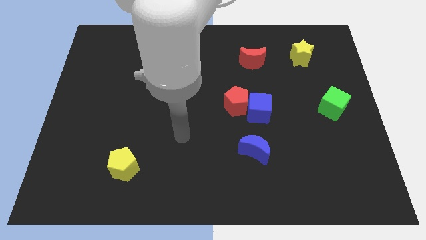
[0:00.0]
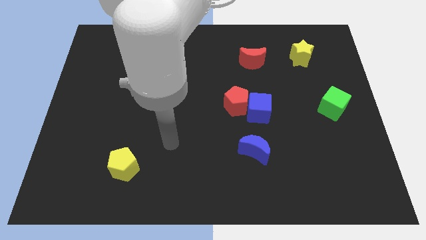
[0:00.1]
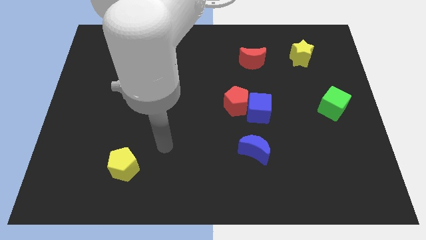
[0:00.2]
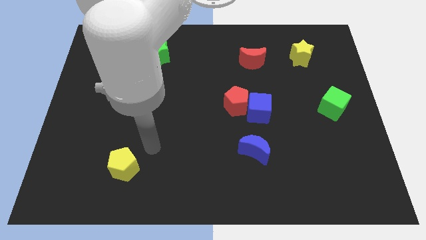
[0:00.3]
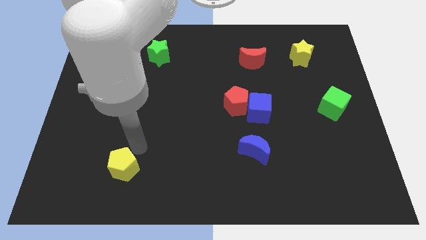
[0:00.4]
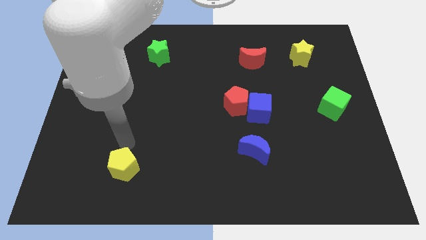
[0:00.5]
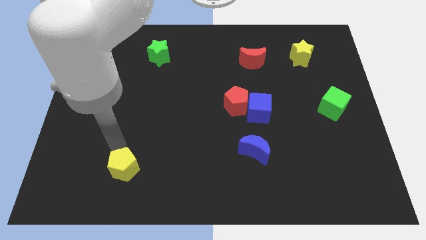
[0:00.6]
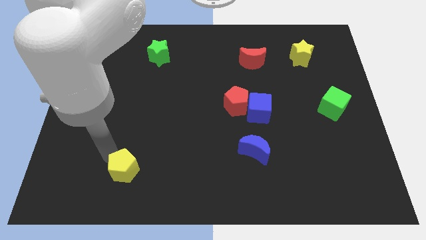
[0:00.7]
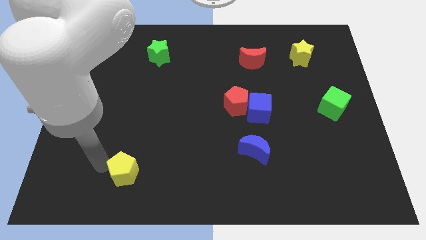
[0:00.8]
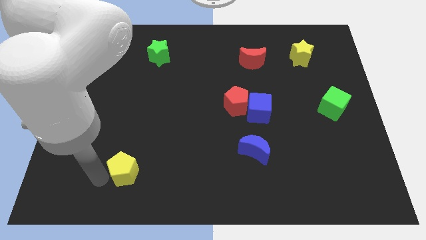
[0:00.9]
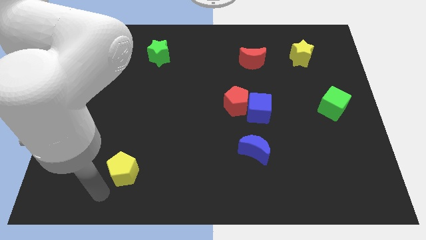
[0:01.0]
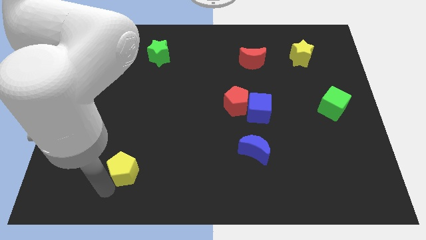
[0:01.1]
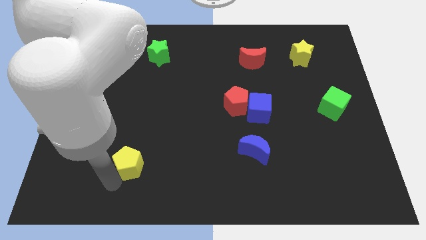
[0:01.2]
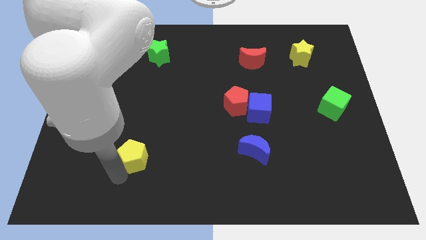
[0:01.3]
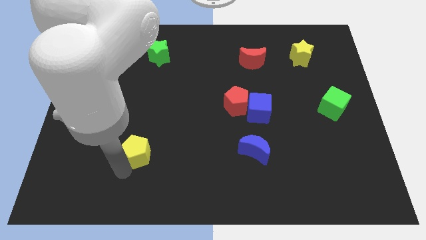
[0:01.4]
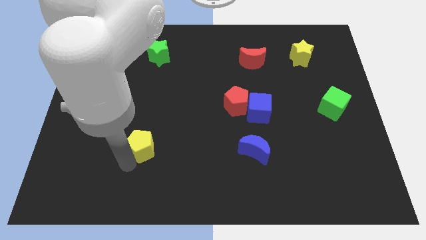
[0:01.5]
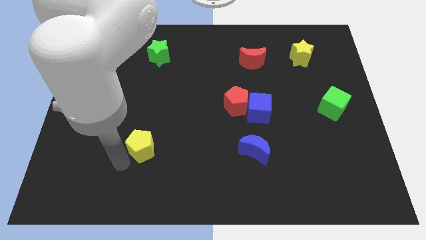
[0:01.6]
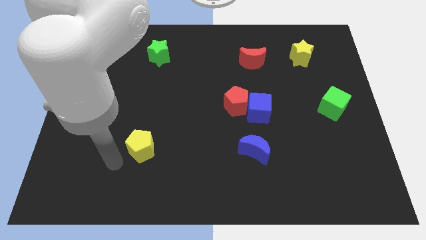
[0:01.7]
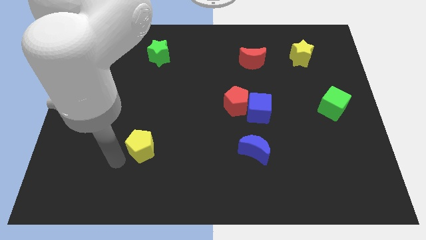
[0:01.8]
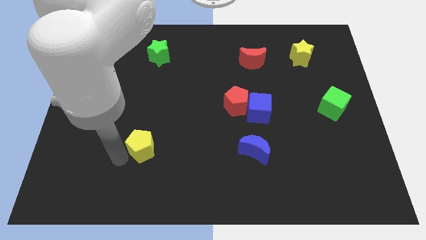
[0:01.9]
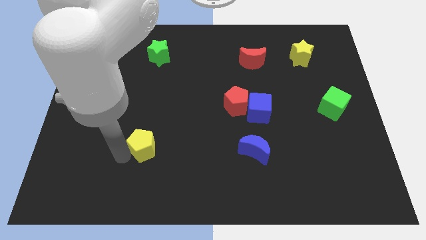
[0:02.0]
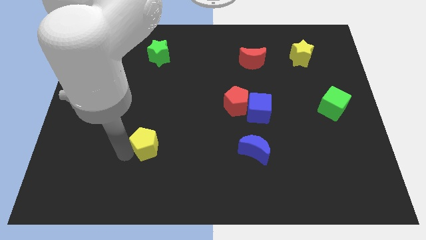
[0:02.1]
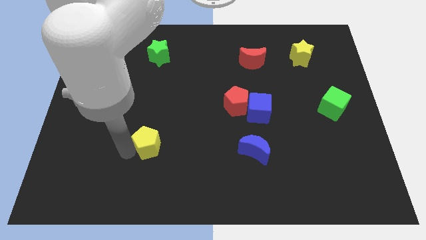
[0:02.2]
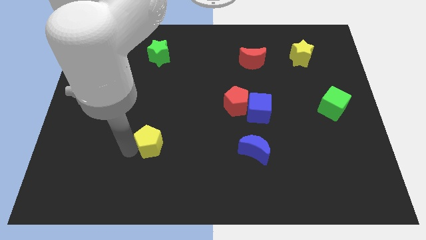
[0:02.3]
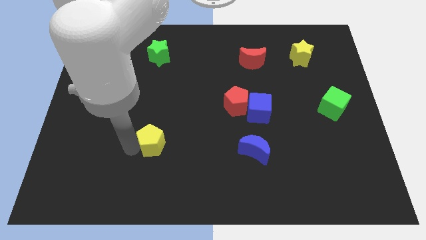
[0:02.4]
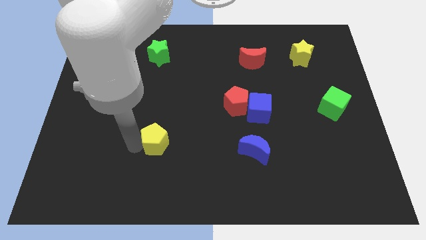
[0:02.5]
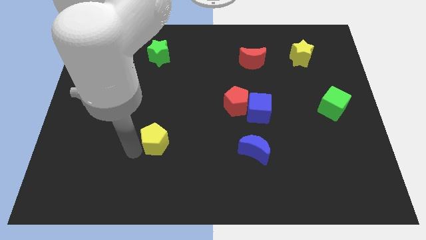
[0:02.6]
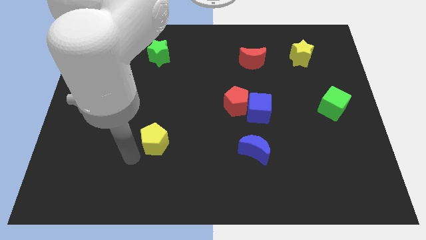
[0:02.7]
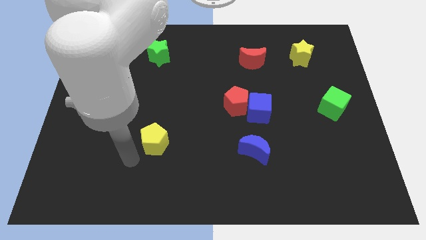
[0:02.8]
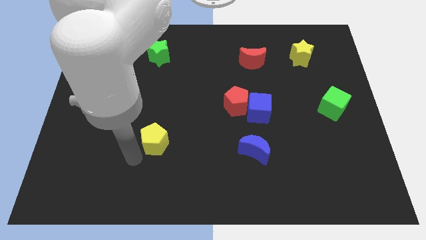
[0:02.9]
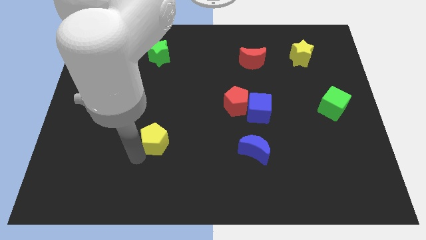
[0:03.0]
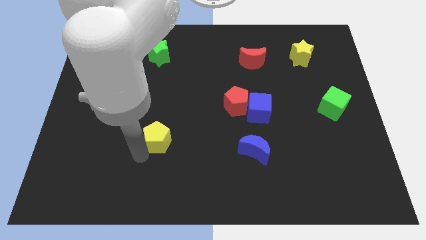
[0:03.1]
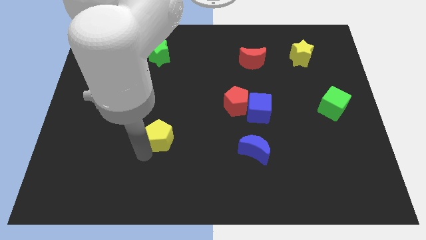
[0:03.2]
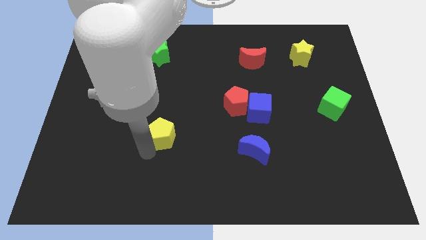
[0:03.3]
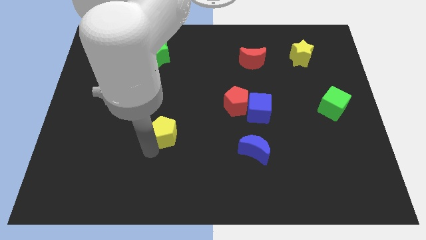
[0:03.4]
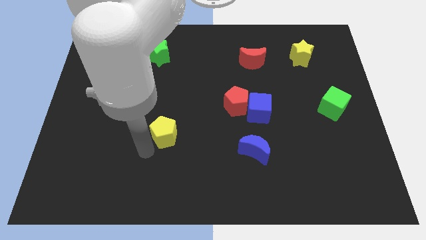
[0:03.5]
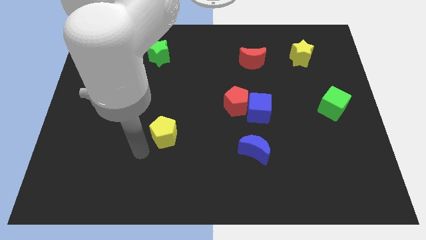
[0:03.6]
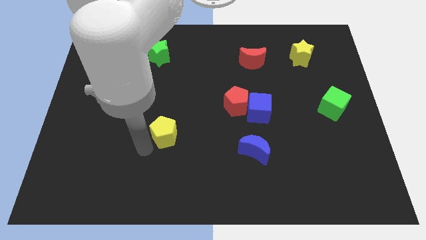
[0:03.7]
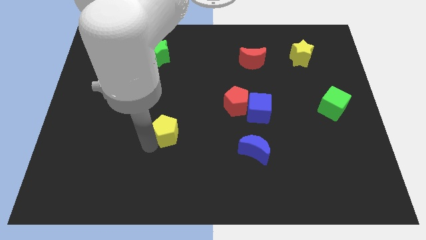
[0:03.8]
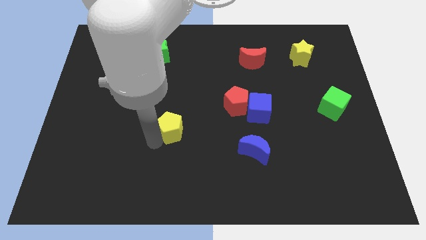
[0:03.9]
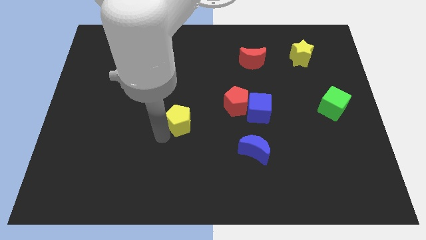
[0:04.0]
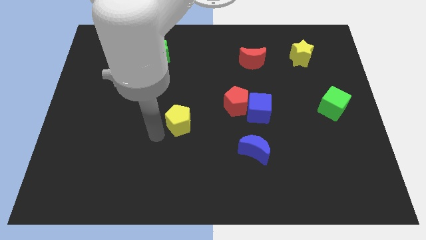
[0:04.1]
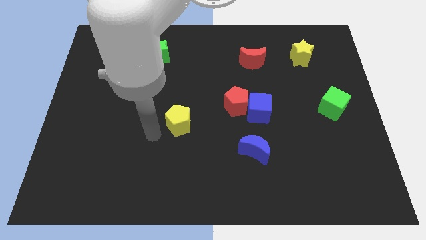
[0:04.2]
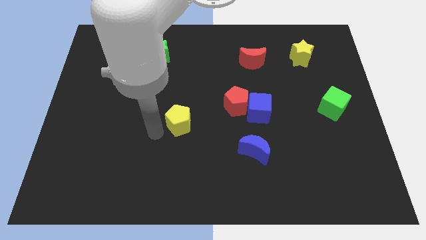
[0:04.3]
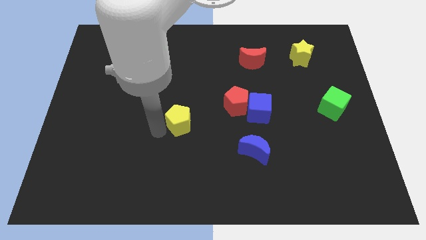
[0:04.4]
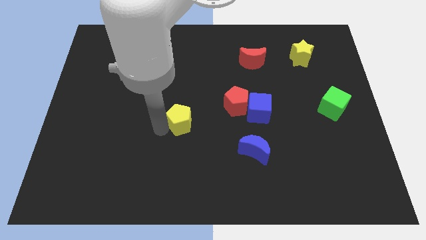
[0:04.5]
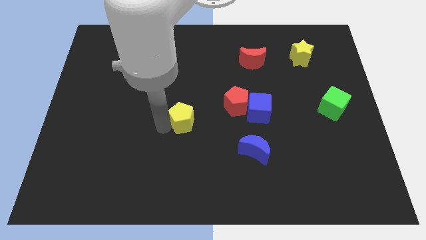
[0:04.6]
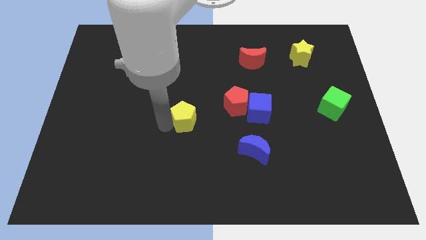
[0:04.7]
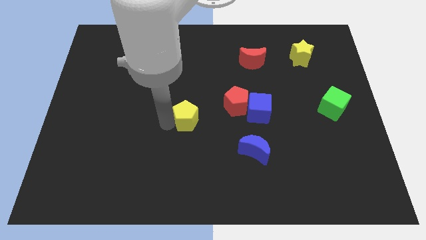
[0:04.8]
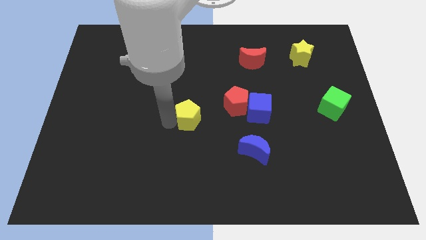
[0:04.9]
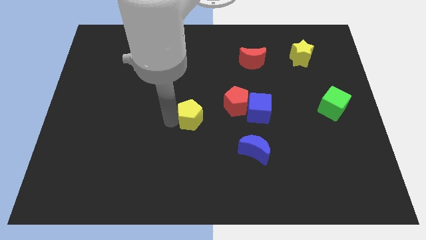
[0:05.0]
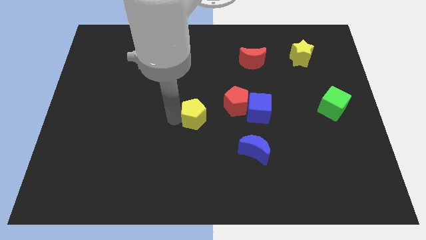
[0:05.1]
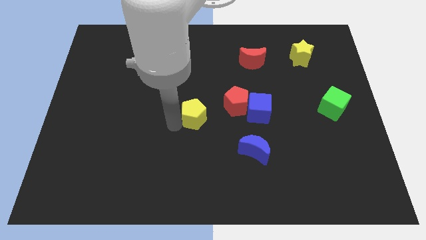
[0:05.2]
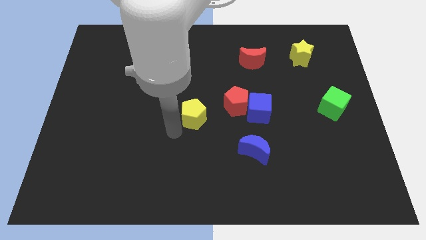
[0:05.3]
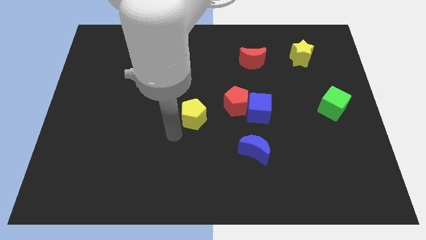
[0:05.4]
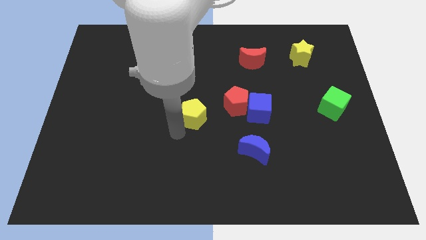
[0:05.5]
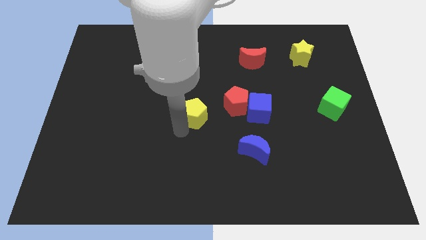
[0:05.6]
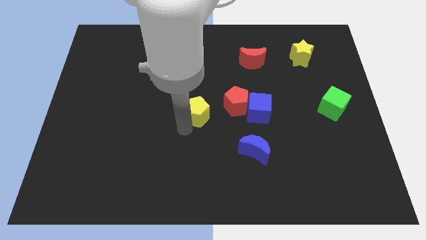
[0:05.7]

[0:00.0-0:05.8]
slide the yellow pentagon diagonally up and right

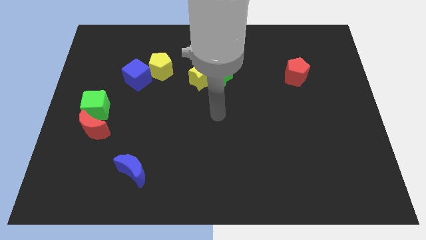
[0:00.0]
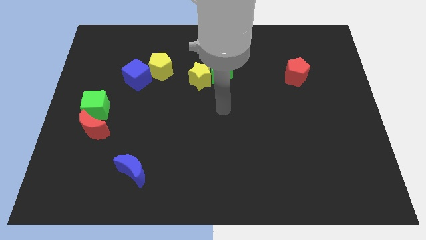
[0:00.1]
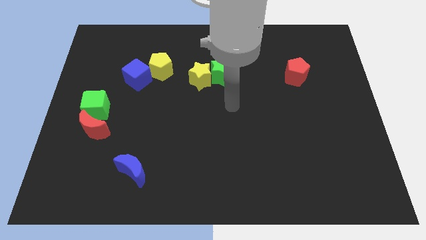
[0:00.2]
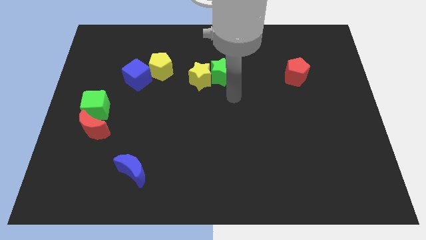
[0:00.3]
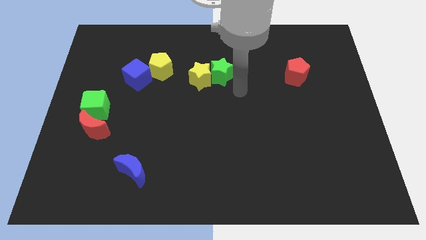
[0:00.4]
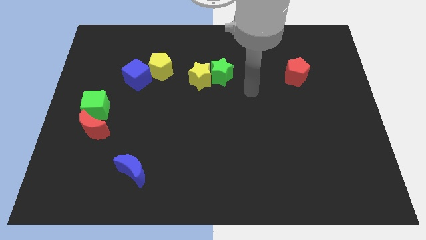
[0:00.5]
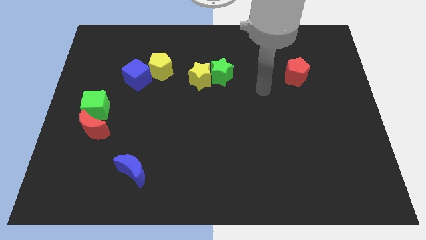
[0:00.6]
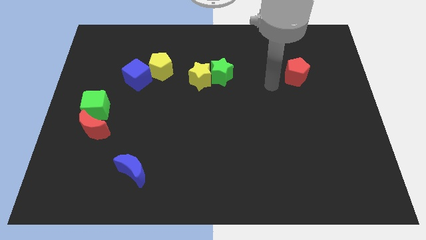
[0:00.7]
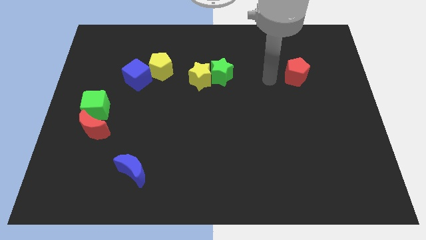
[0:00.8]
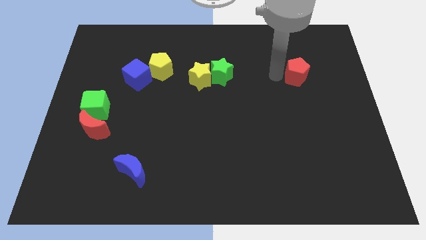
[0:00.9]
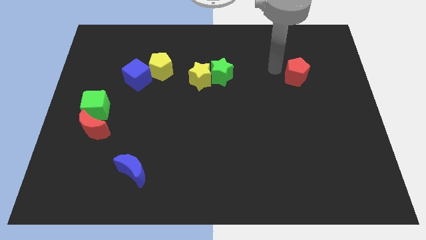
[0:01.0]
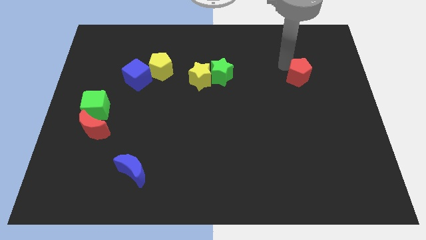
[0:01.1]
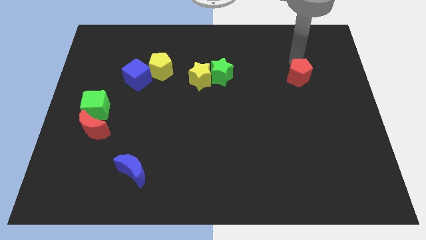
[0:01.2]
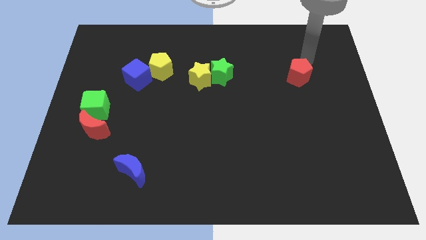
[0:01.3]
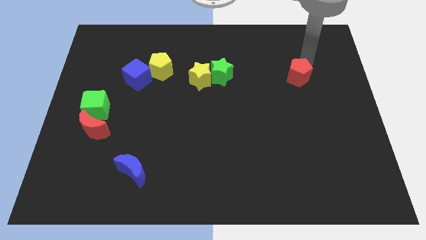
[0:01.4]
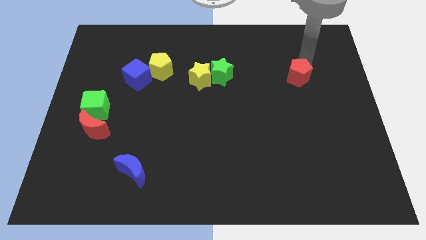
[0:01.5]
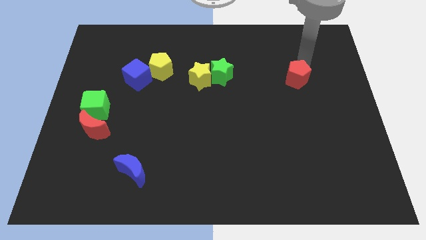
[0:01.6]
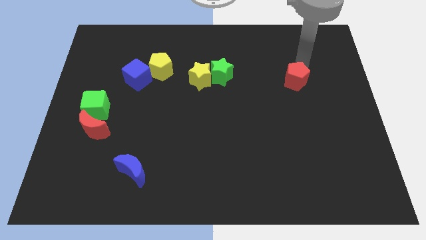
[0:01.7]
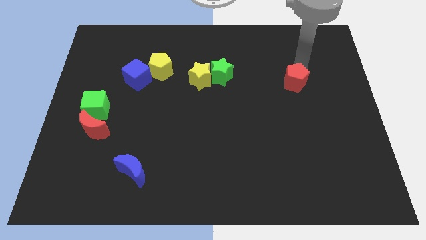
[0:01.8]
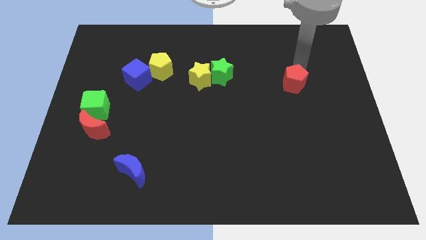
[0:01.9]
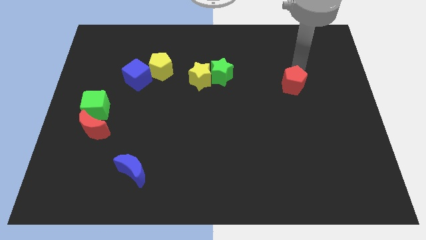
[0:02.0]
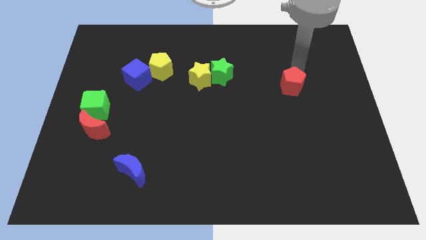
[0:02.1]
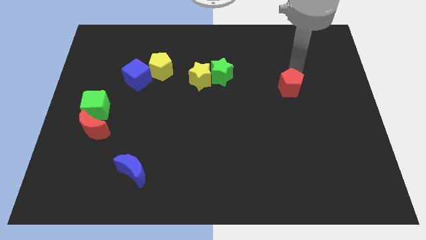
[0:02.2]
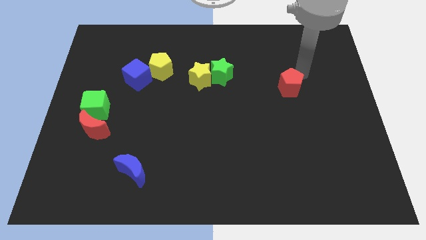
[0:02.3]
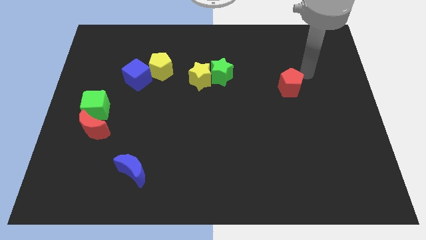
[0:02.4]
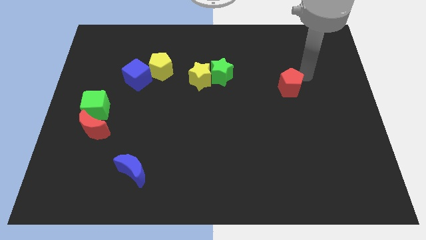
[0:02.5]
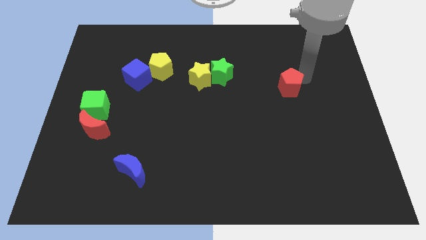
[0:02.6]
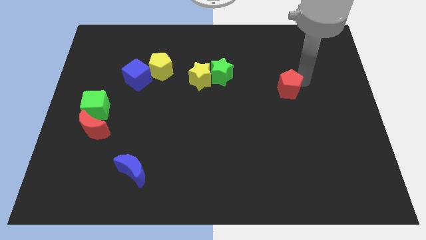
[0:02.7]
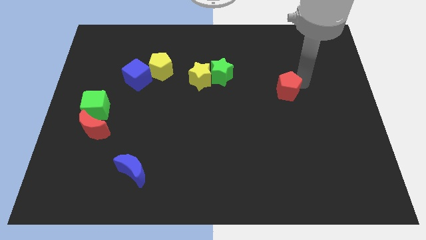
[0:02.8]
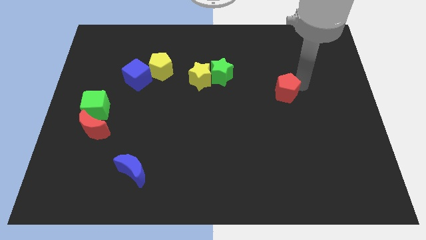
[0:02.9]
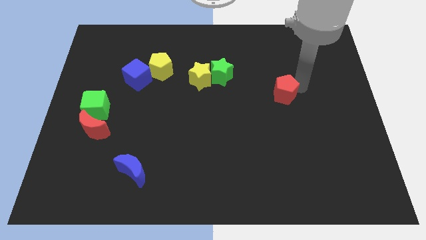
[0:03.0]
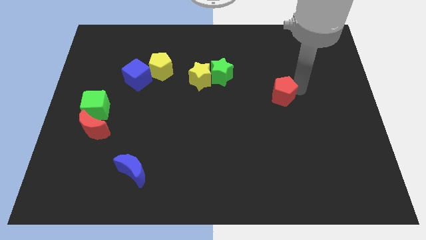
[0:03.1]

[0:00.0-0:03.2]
slightly move the red pentagon downwards and then left
